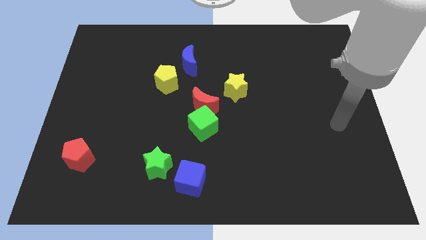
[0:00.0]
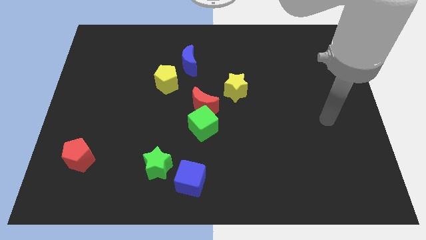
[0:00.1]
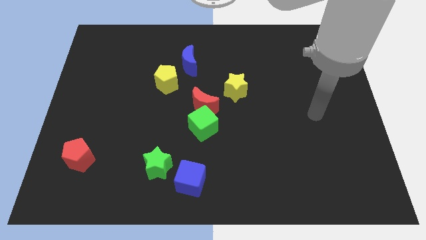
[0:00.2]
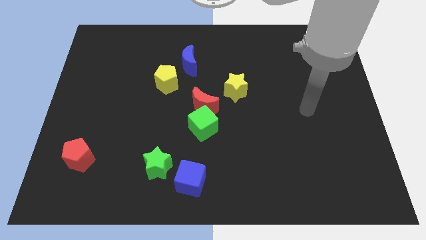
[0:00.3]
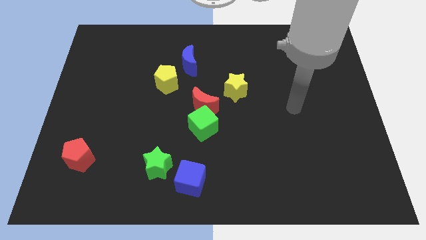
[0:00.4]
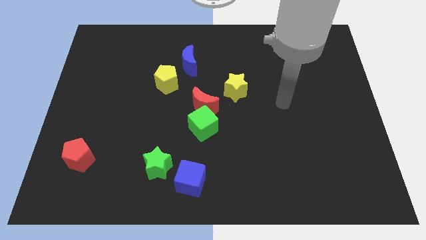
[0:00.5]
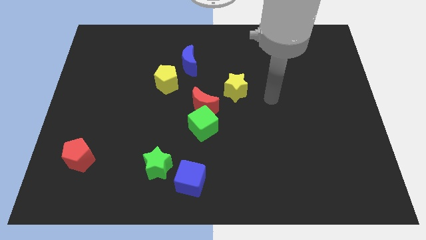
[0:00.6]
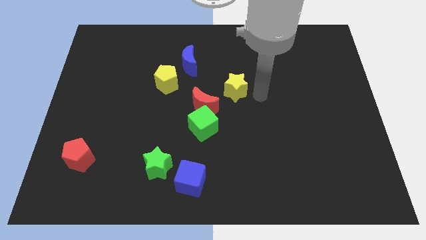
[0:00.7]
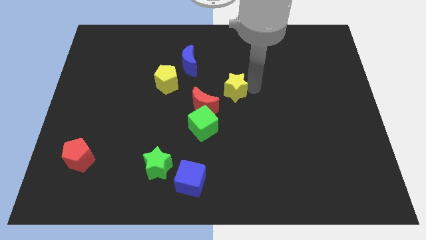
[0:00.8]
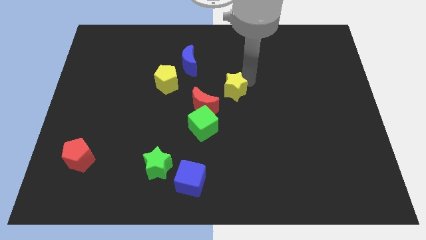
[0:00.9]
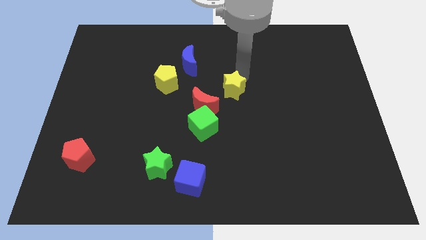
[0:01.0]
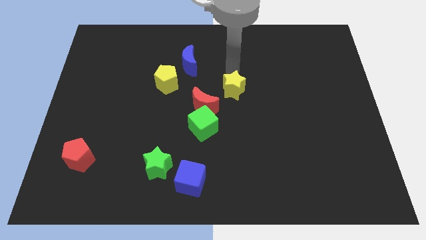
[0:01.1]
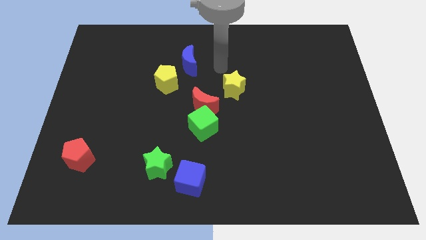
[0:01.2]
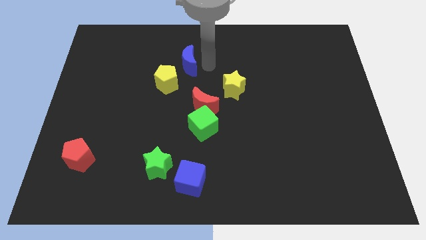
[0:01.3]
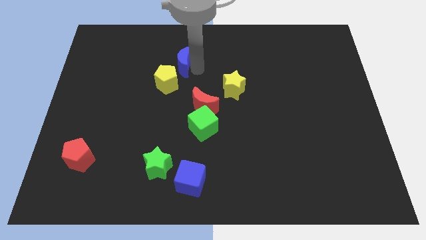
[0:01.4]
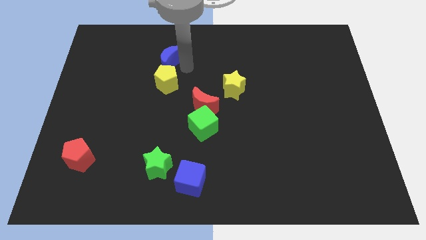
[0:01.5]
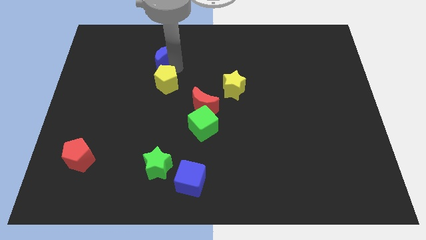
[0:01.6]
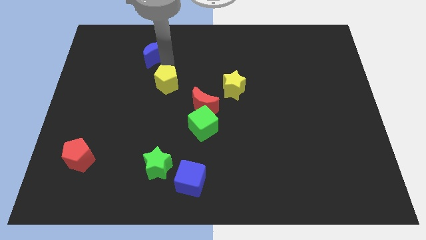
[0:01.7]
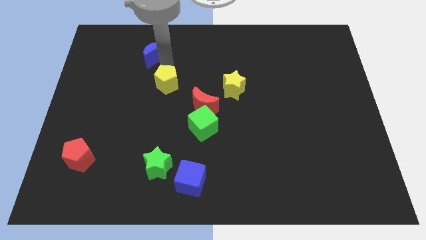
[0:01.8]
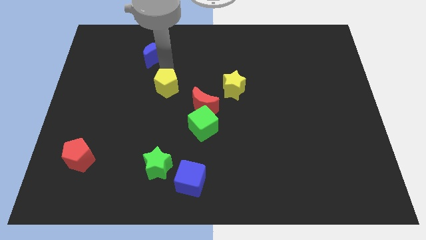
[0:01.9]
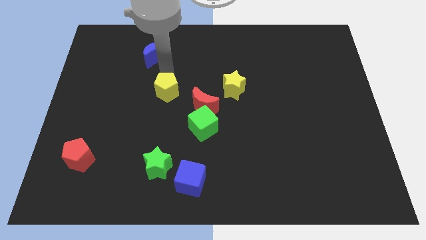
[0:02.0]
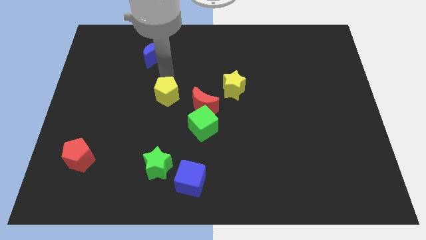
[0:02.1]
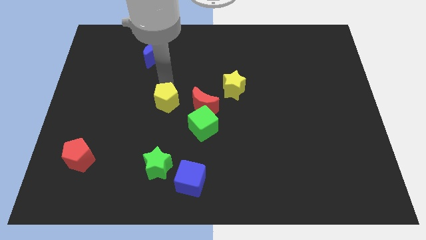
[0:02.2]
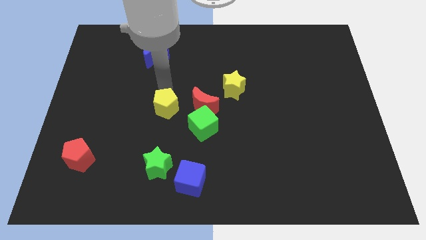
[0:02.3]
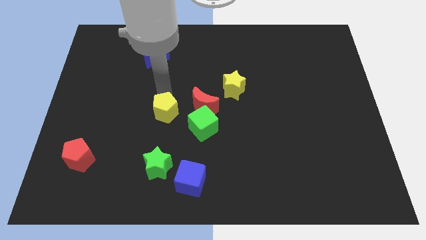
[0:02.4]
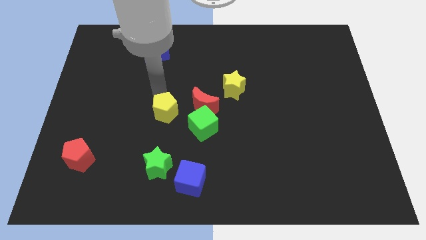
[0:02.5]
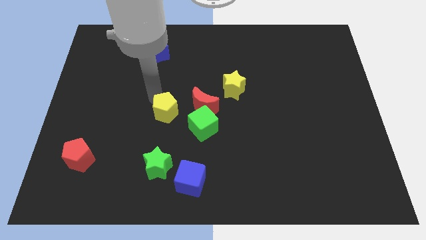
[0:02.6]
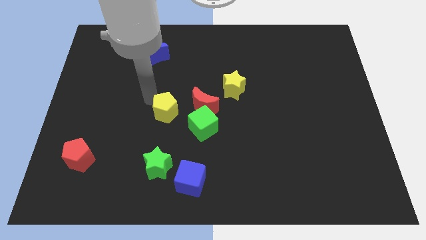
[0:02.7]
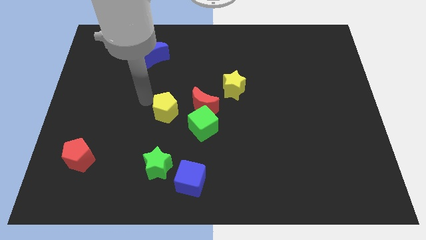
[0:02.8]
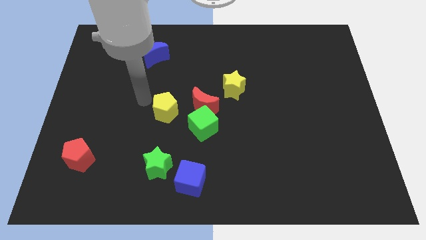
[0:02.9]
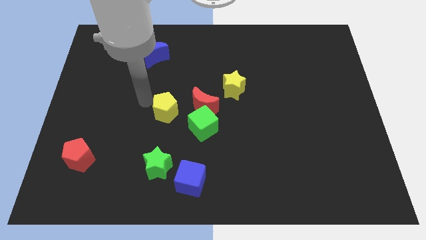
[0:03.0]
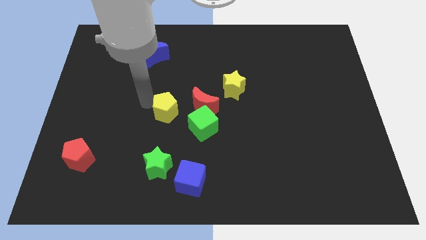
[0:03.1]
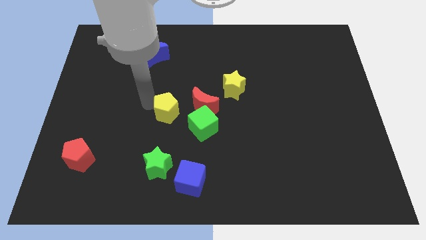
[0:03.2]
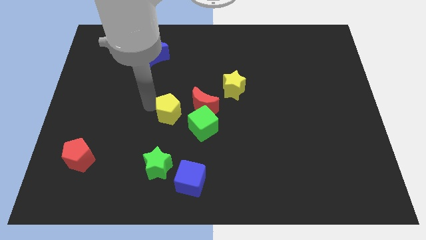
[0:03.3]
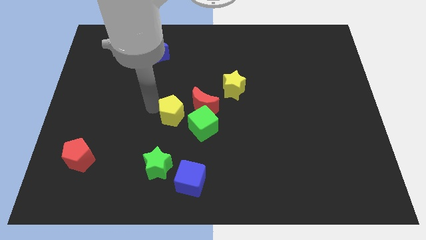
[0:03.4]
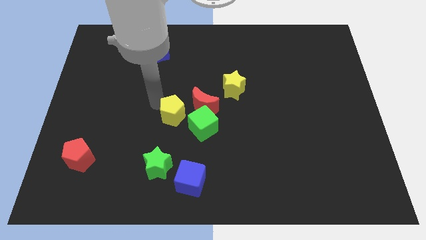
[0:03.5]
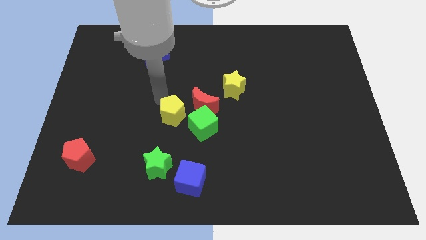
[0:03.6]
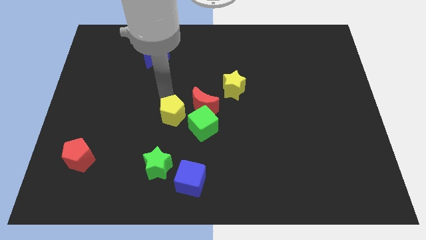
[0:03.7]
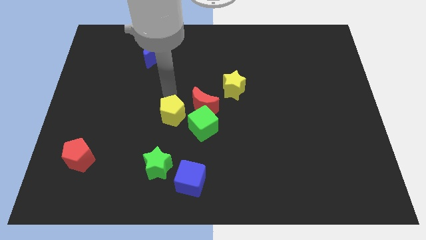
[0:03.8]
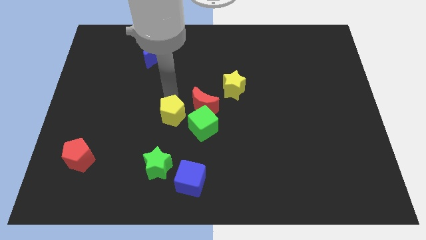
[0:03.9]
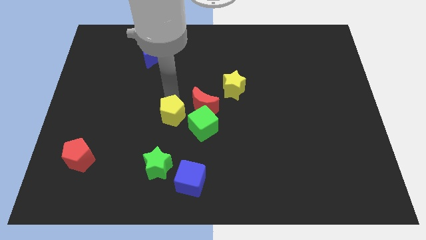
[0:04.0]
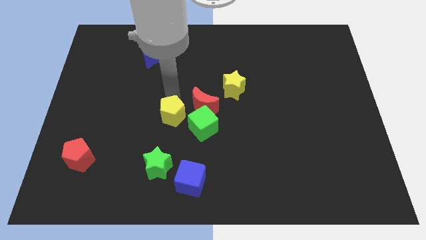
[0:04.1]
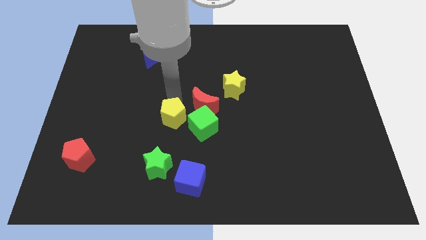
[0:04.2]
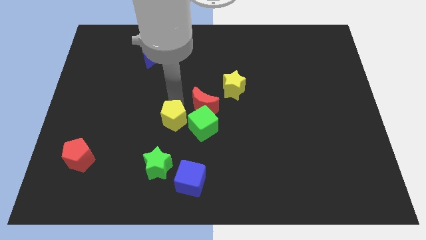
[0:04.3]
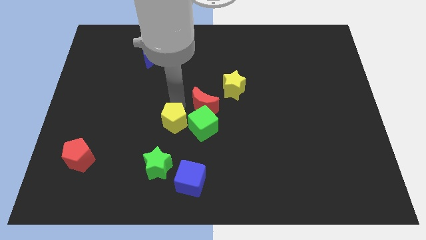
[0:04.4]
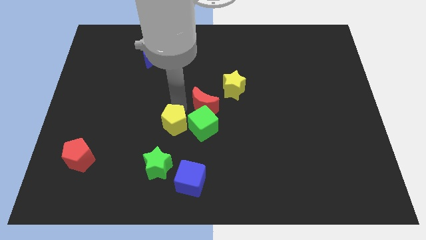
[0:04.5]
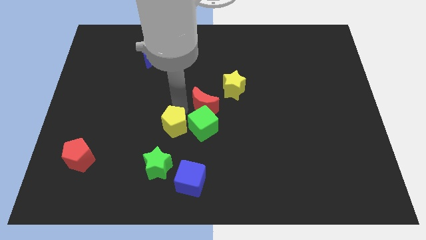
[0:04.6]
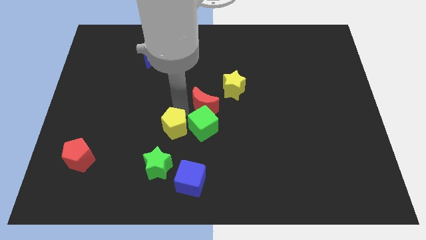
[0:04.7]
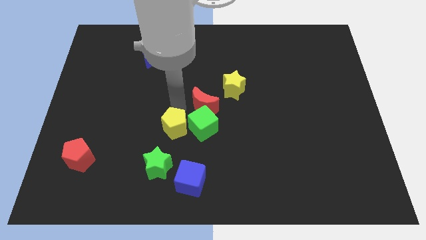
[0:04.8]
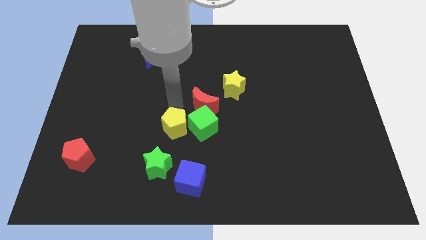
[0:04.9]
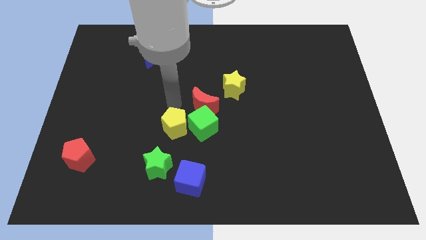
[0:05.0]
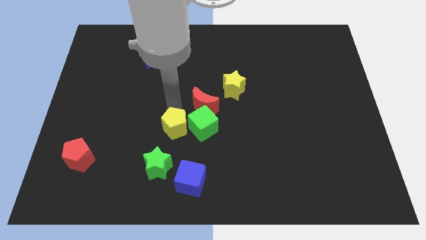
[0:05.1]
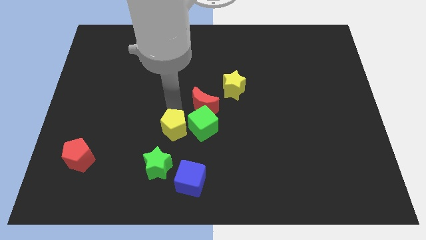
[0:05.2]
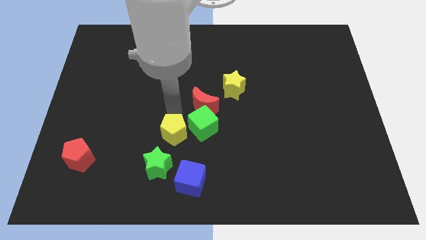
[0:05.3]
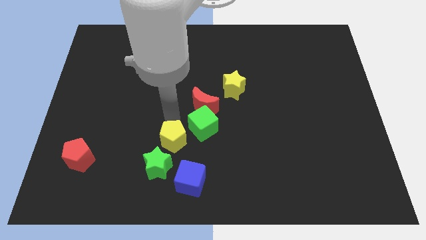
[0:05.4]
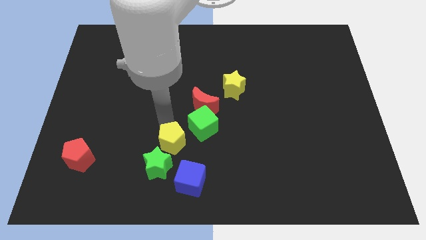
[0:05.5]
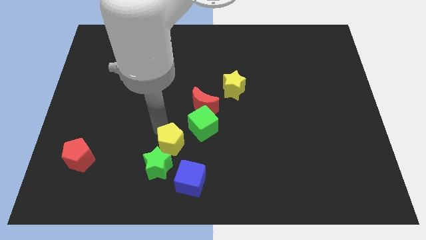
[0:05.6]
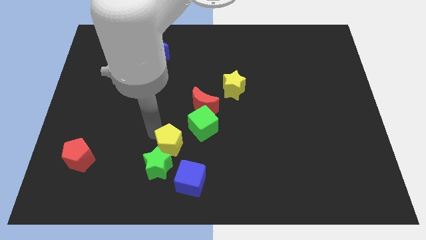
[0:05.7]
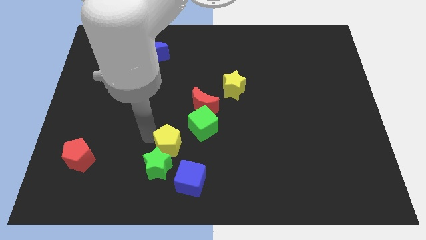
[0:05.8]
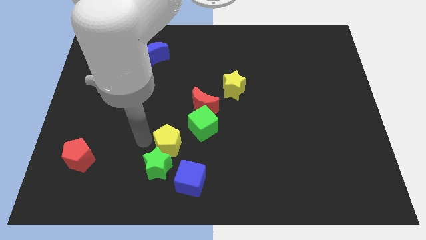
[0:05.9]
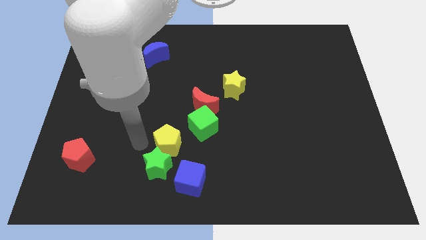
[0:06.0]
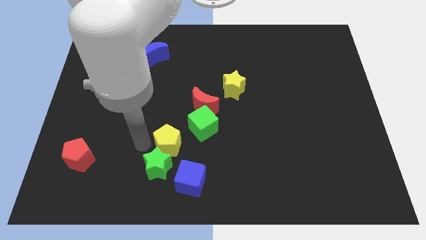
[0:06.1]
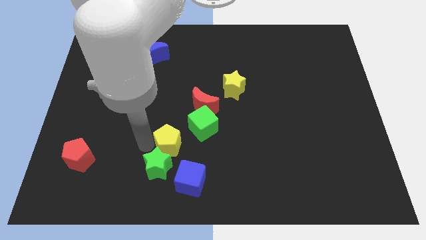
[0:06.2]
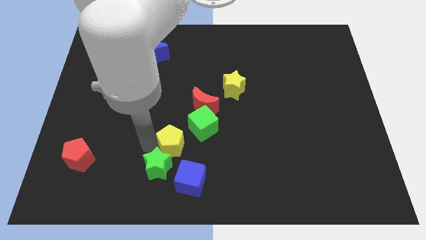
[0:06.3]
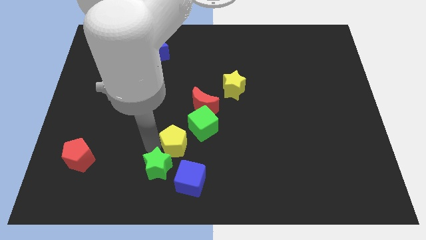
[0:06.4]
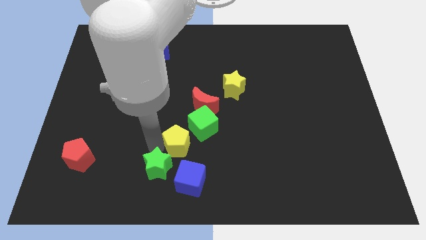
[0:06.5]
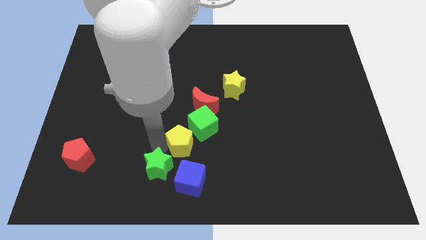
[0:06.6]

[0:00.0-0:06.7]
put the yellow pentagon below the red moon
